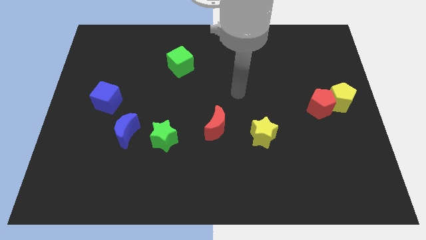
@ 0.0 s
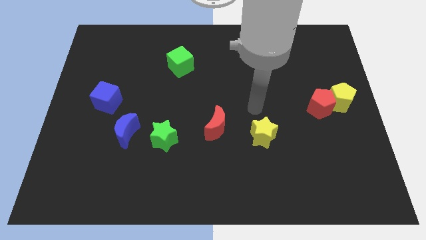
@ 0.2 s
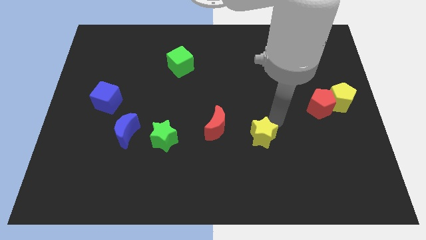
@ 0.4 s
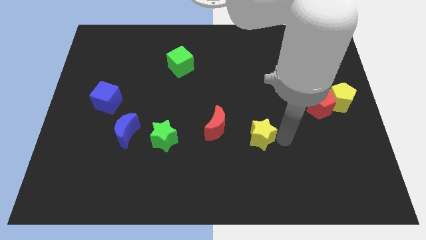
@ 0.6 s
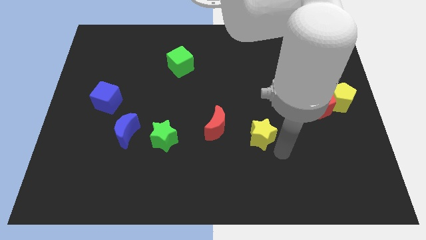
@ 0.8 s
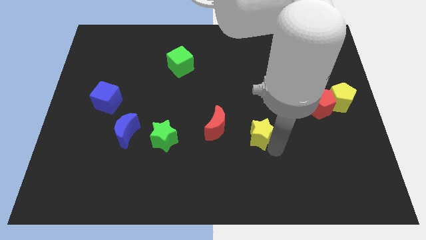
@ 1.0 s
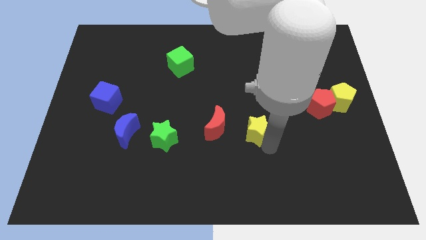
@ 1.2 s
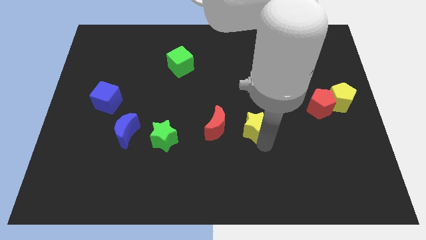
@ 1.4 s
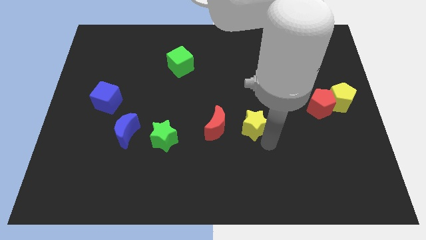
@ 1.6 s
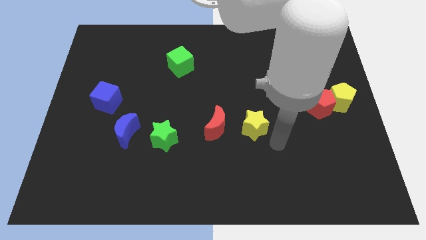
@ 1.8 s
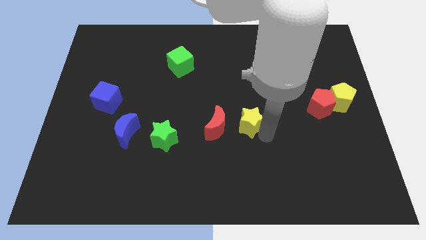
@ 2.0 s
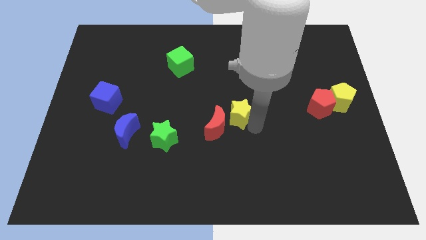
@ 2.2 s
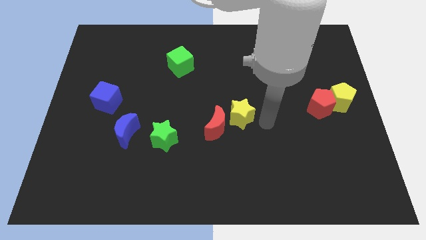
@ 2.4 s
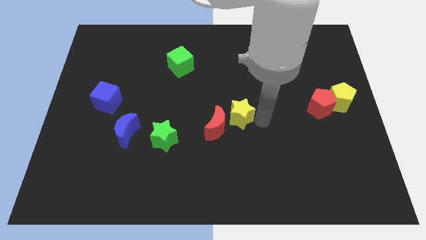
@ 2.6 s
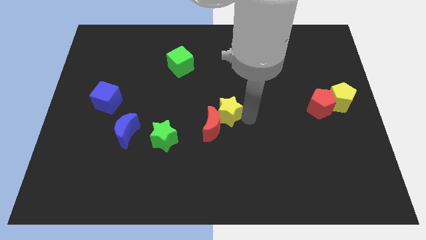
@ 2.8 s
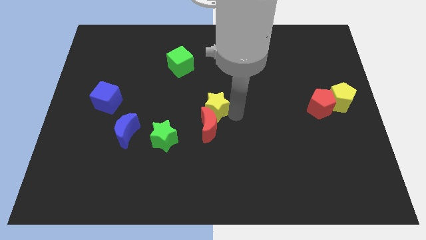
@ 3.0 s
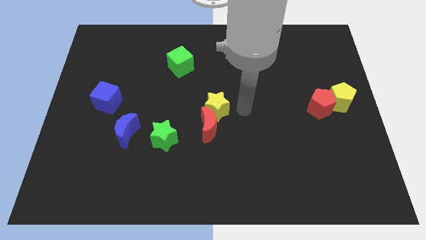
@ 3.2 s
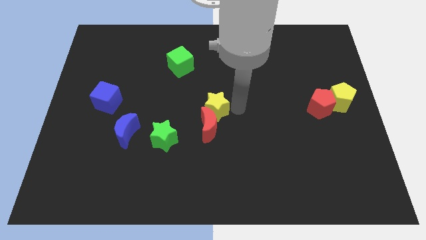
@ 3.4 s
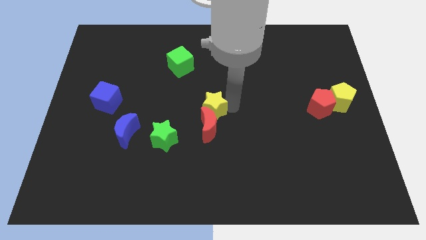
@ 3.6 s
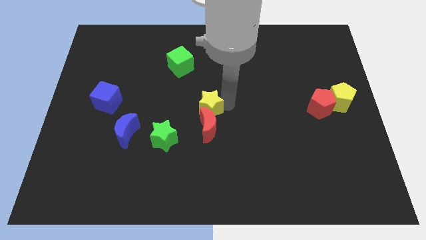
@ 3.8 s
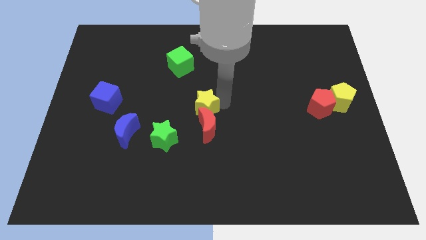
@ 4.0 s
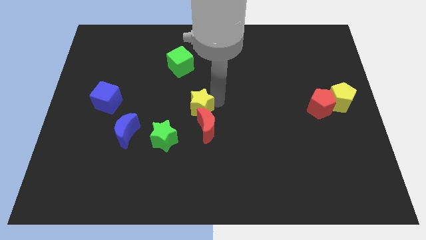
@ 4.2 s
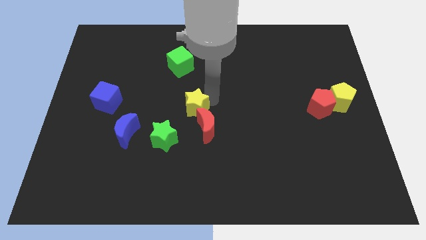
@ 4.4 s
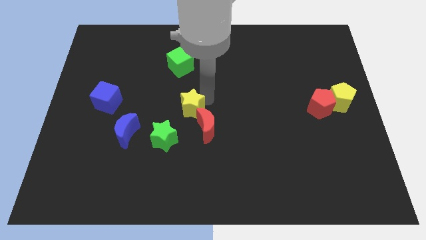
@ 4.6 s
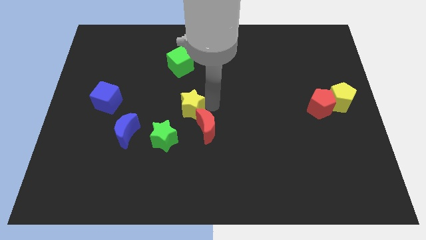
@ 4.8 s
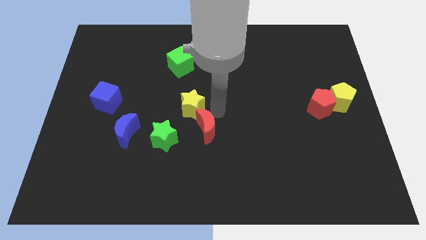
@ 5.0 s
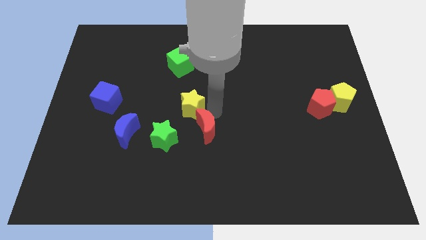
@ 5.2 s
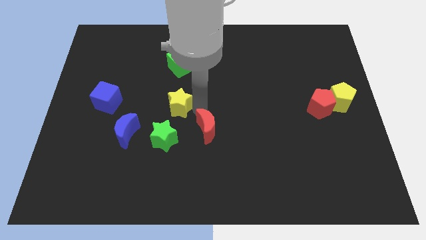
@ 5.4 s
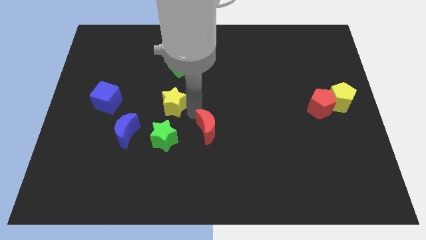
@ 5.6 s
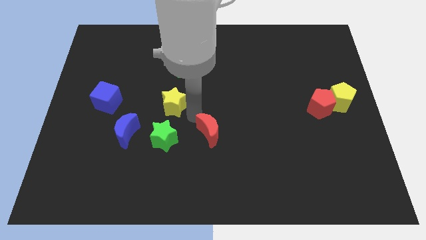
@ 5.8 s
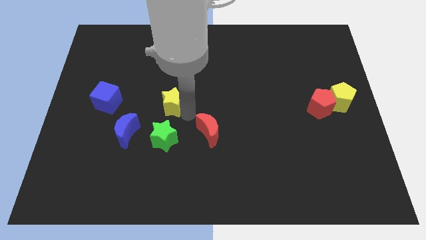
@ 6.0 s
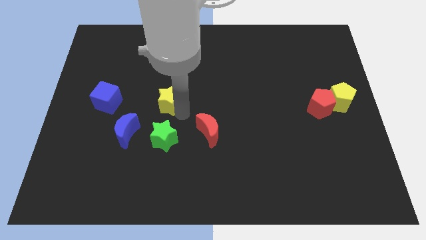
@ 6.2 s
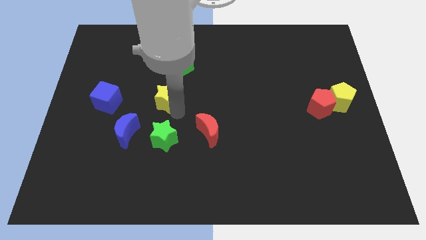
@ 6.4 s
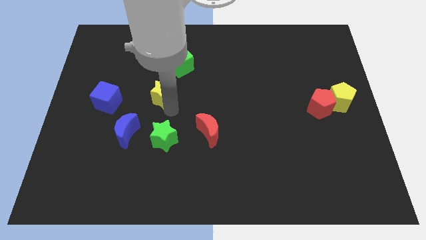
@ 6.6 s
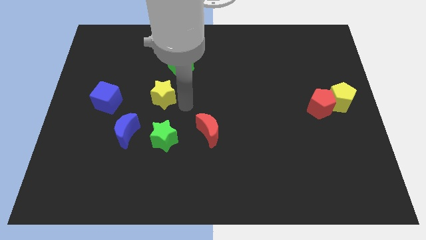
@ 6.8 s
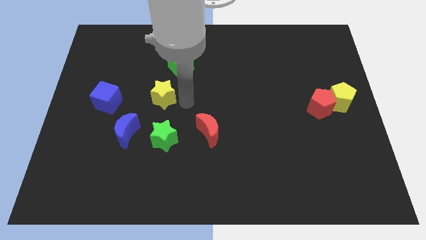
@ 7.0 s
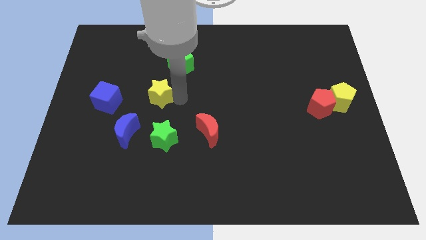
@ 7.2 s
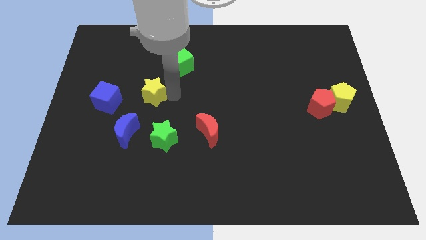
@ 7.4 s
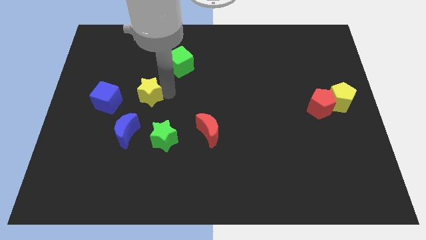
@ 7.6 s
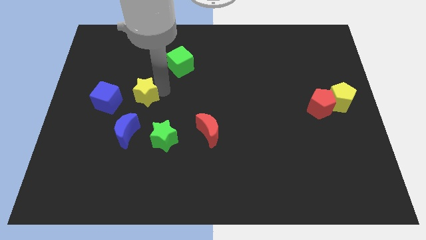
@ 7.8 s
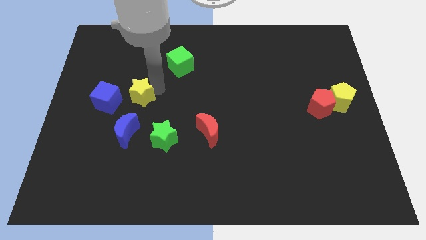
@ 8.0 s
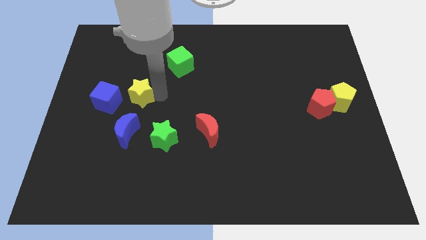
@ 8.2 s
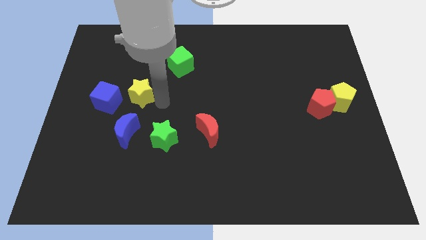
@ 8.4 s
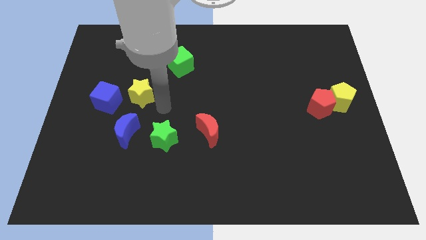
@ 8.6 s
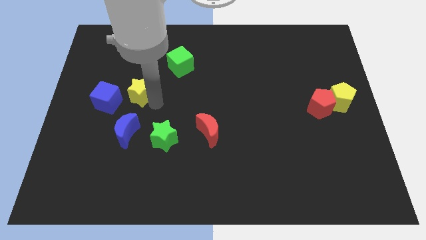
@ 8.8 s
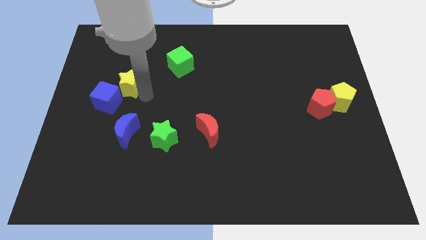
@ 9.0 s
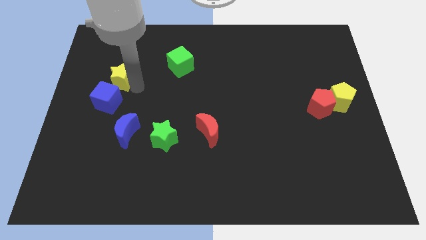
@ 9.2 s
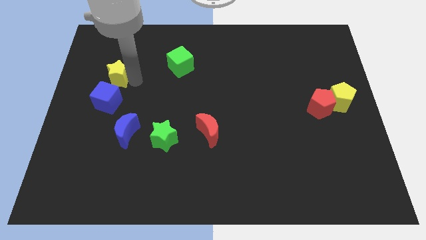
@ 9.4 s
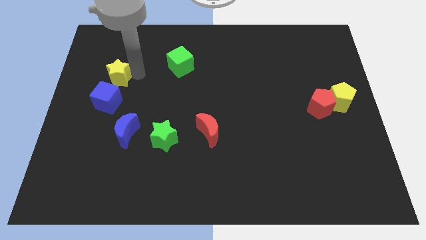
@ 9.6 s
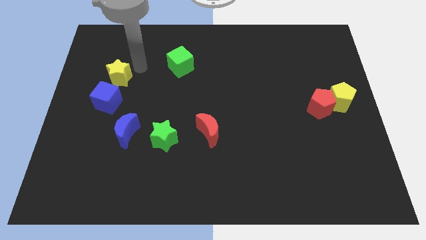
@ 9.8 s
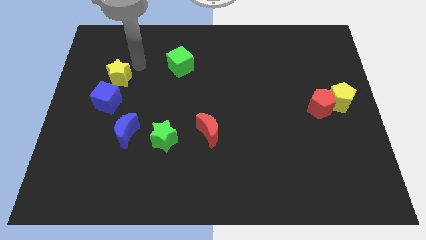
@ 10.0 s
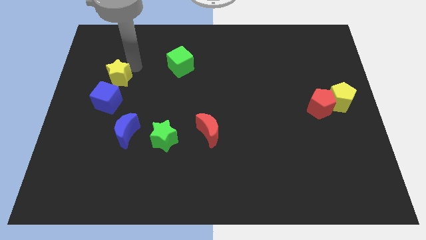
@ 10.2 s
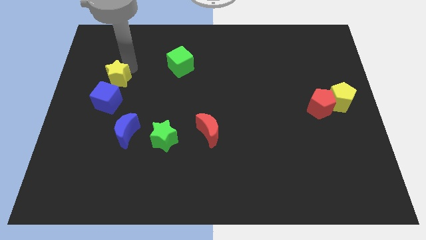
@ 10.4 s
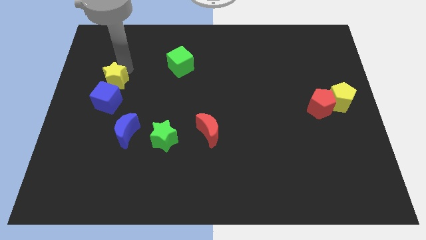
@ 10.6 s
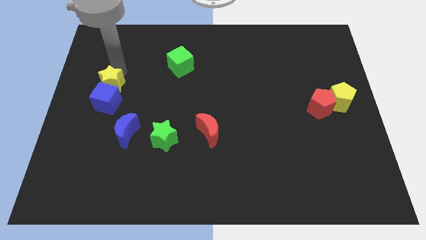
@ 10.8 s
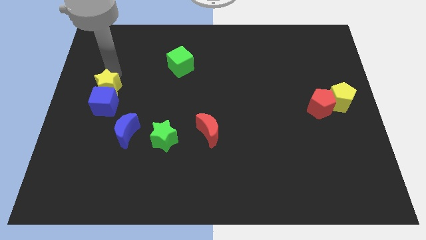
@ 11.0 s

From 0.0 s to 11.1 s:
put the yellow star to the center left

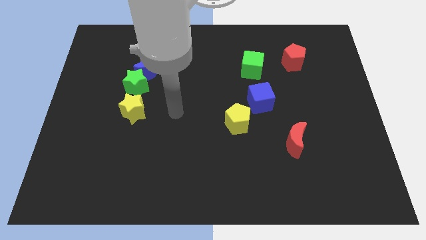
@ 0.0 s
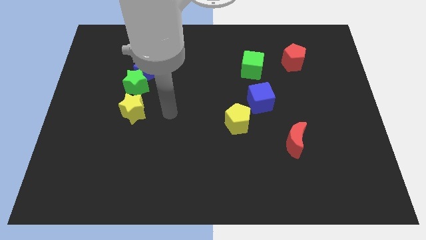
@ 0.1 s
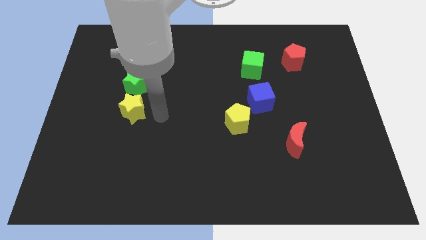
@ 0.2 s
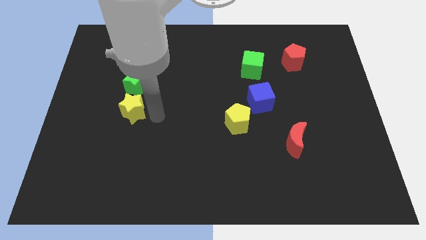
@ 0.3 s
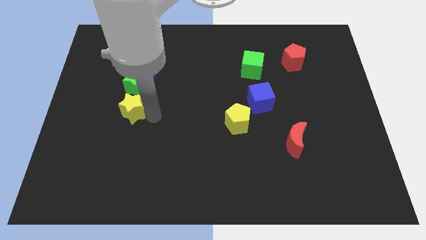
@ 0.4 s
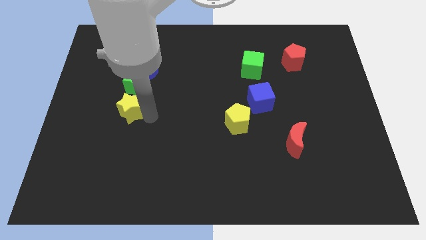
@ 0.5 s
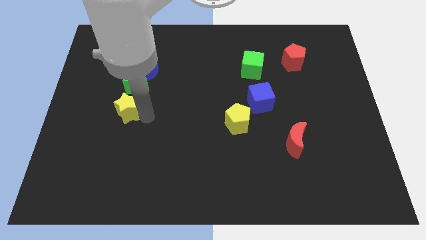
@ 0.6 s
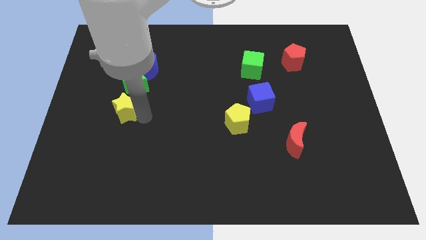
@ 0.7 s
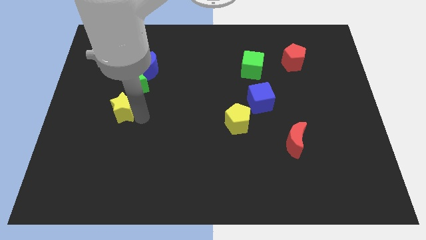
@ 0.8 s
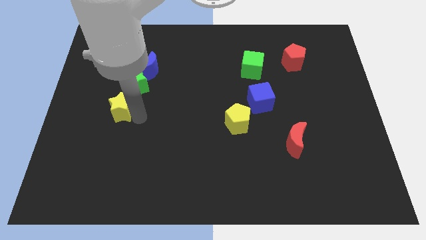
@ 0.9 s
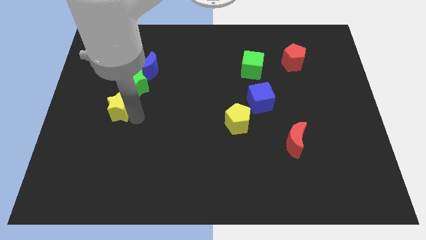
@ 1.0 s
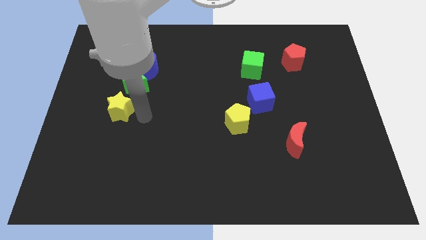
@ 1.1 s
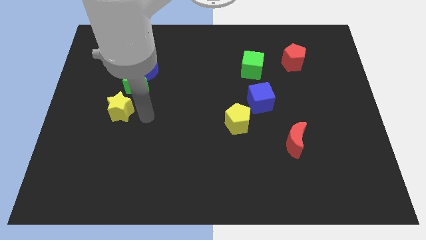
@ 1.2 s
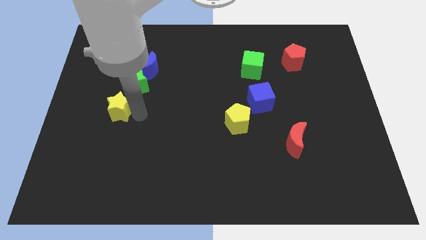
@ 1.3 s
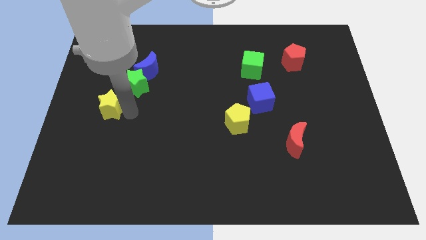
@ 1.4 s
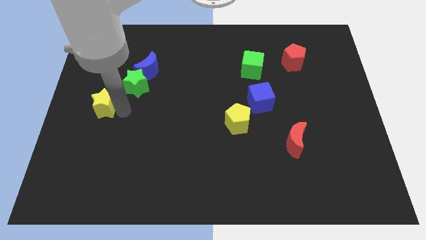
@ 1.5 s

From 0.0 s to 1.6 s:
move the yellow star to the center left
